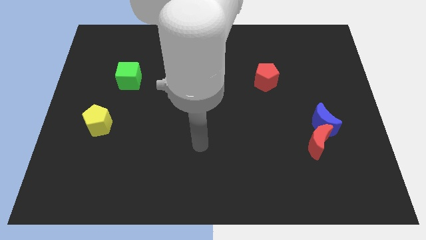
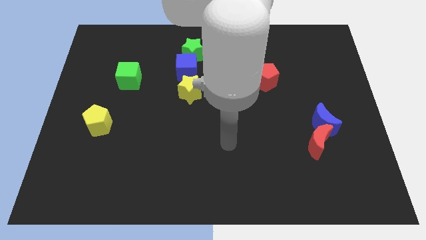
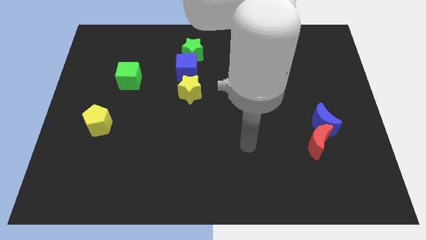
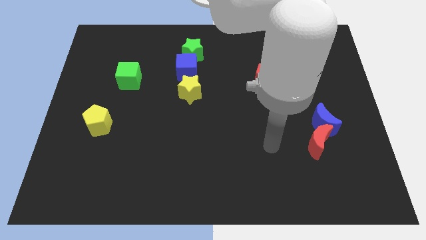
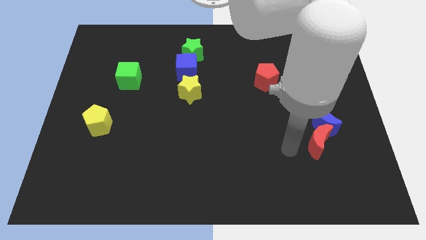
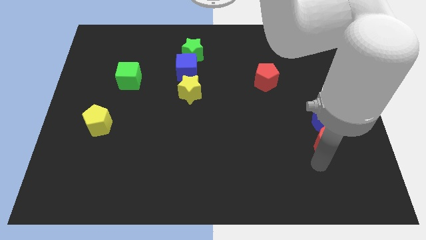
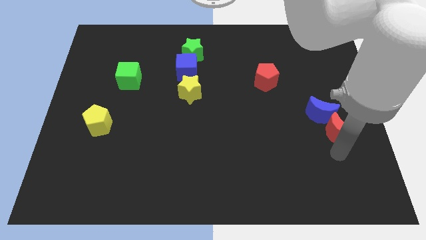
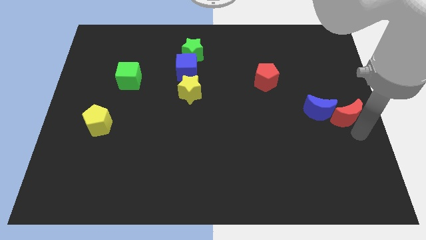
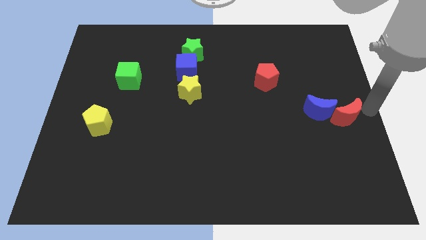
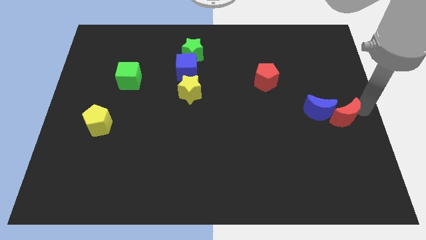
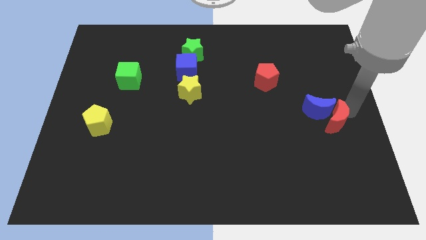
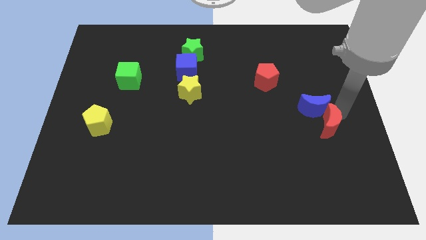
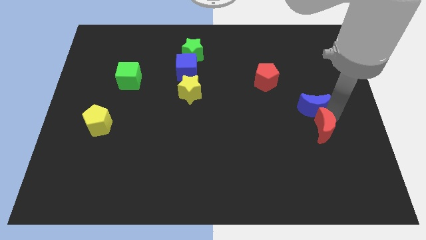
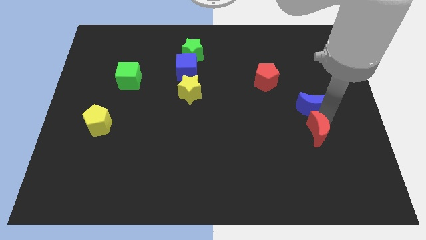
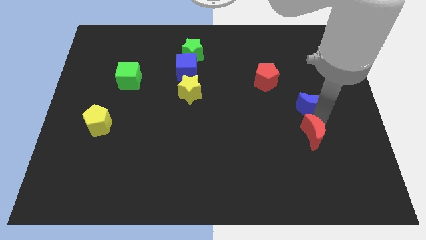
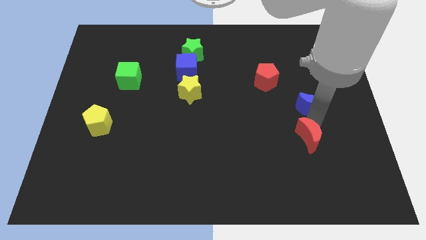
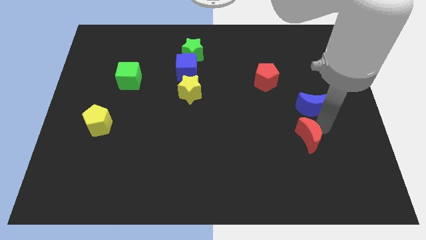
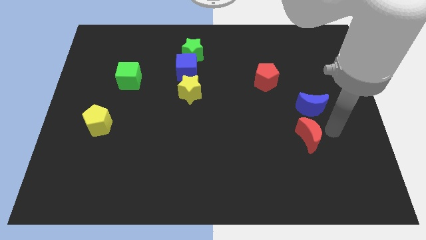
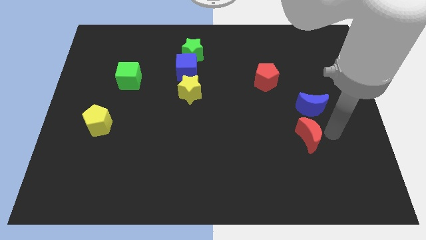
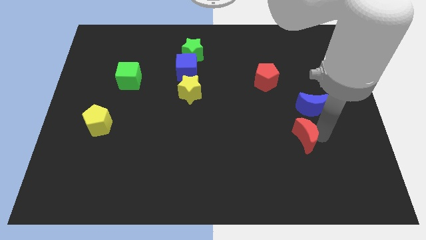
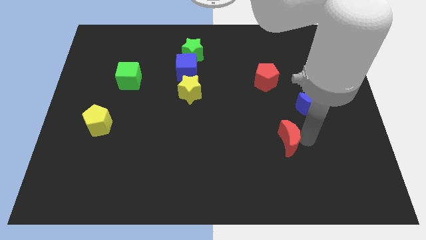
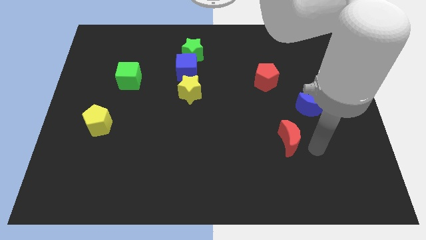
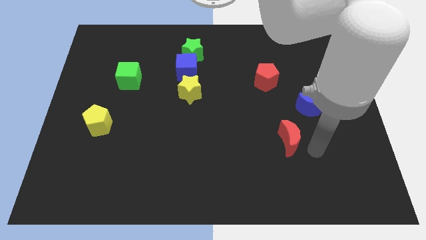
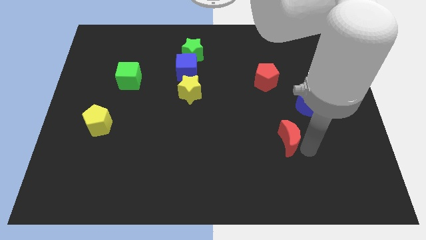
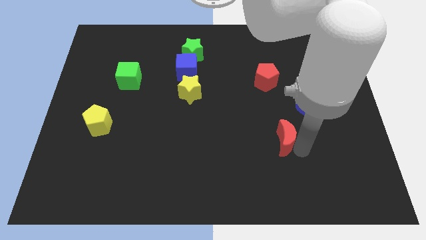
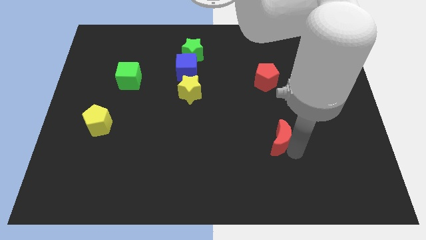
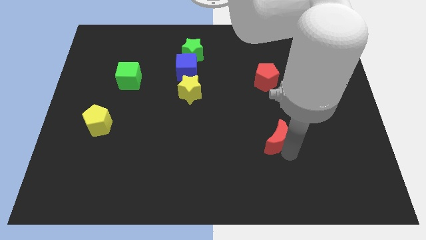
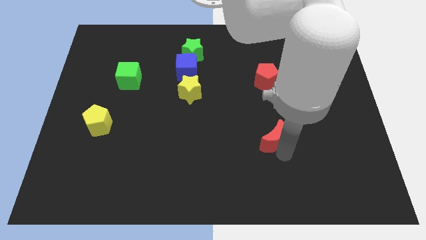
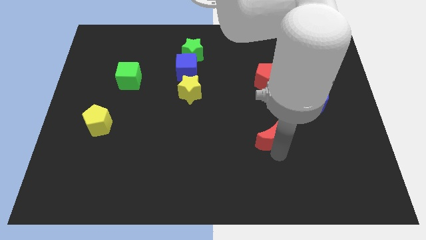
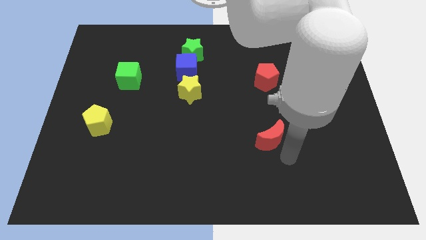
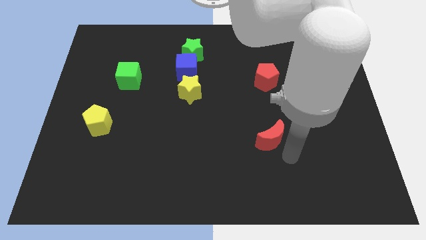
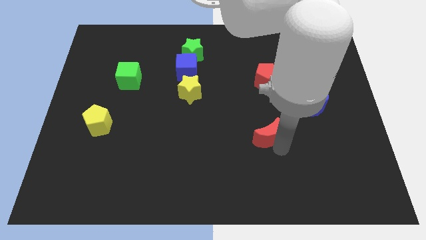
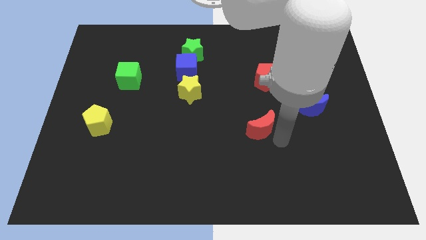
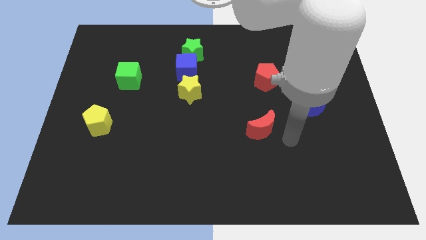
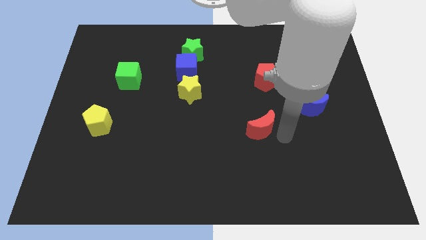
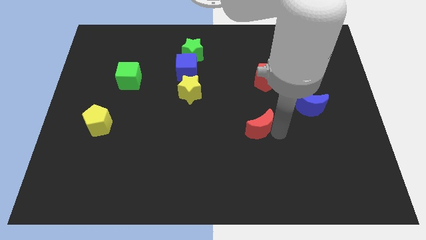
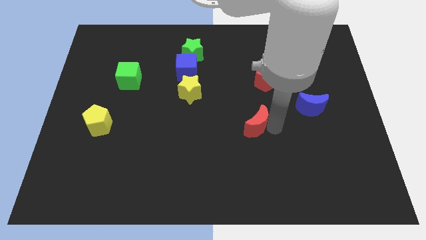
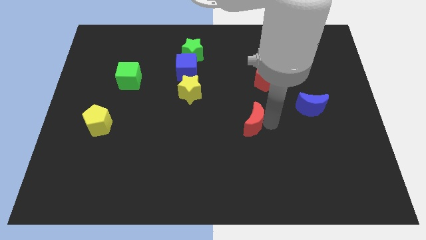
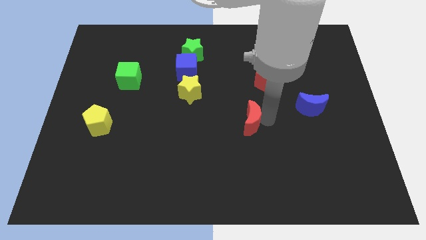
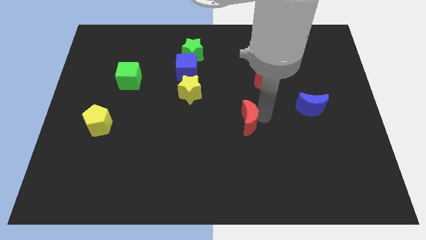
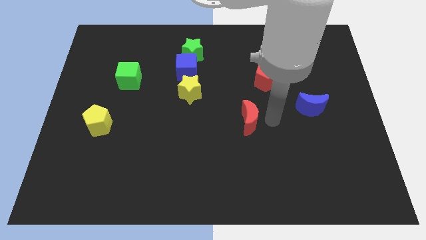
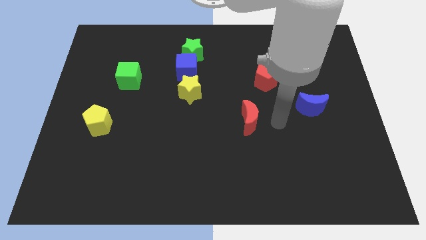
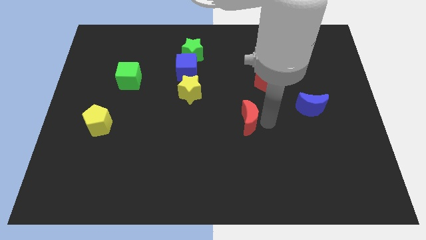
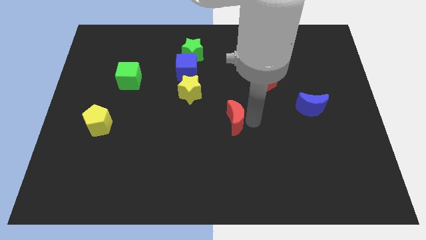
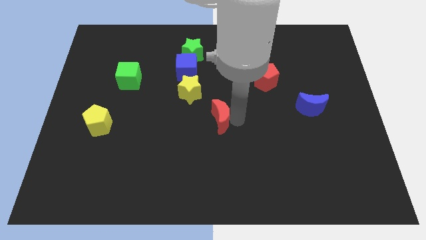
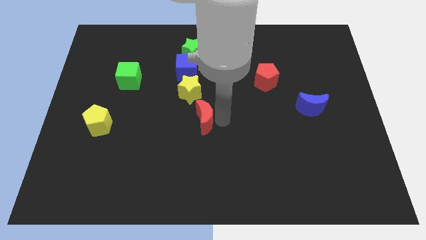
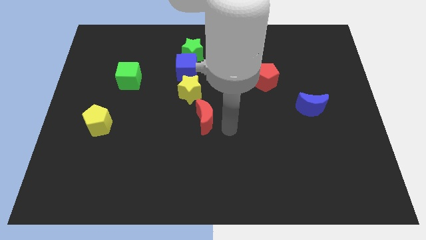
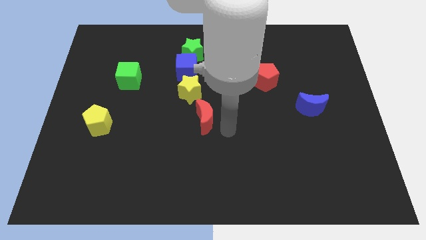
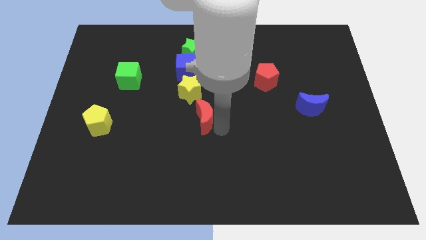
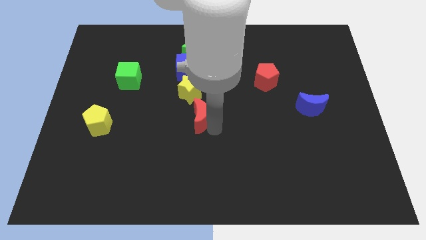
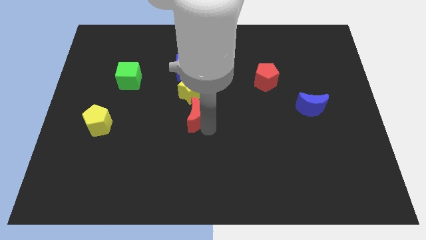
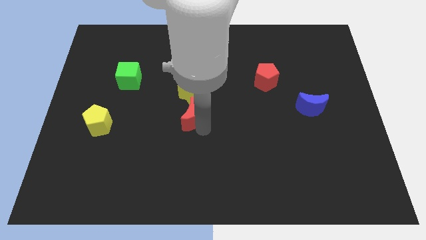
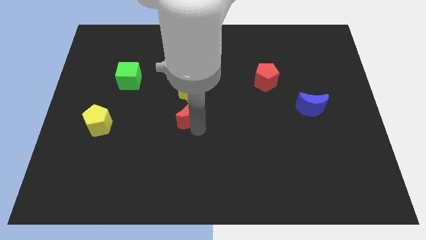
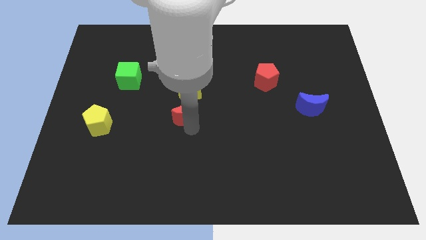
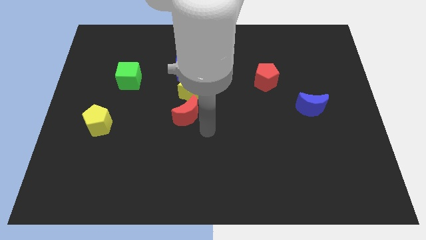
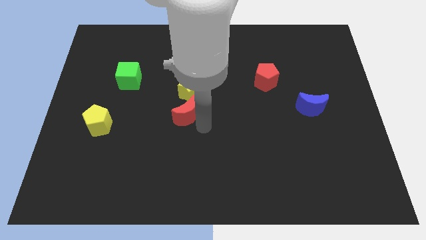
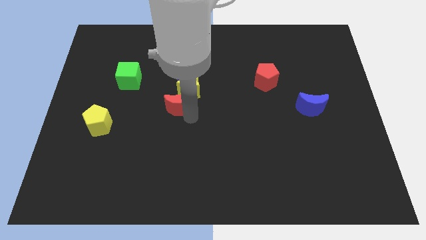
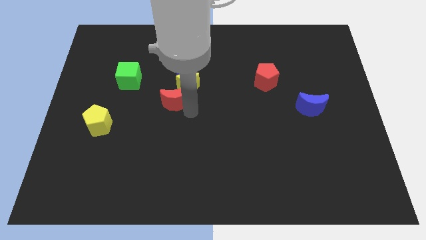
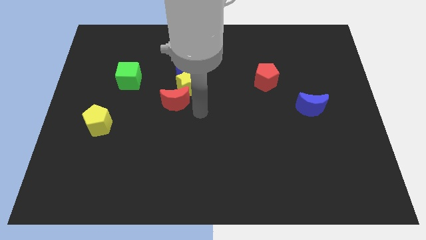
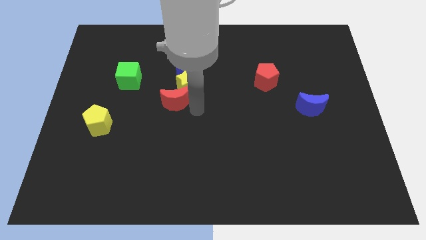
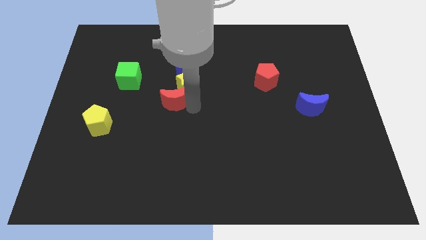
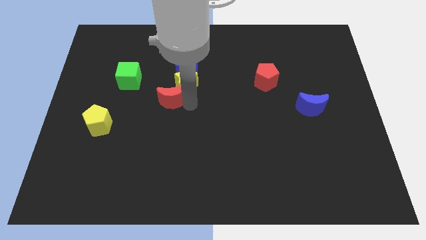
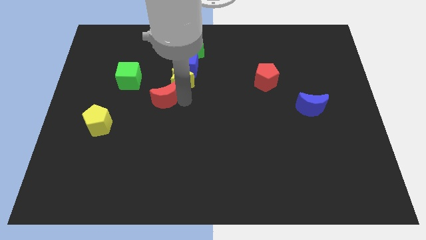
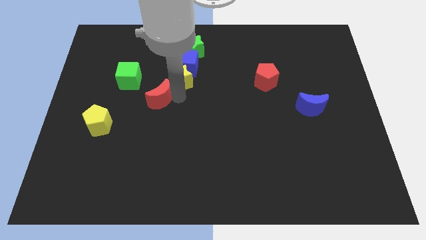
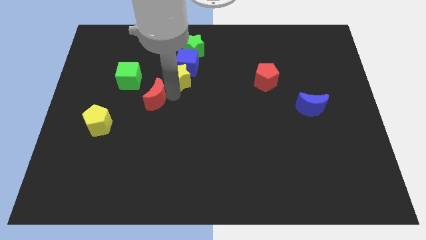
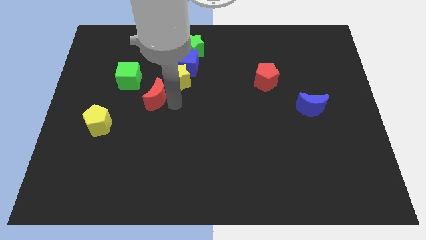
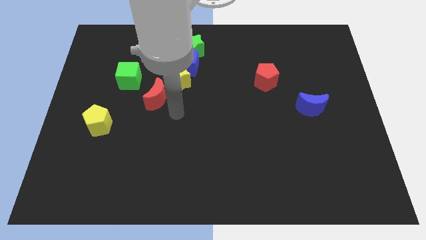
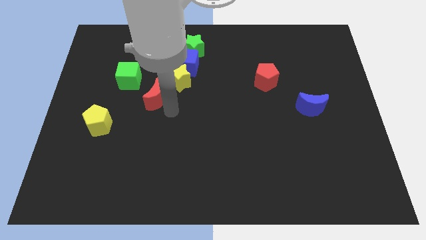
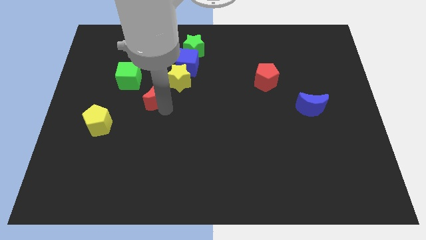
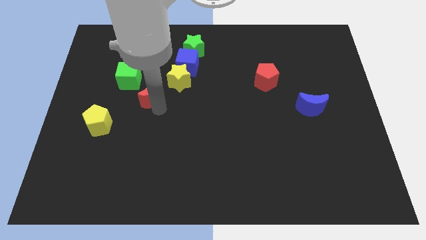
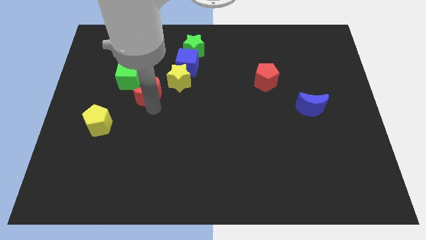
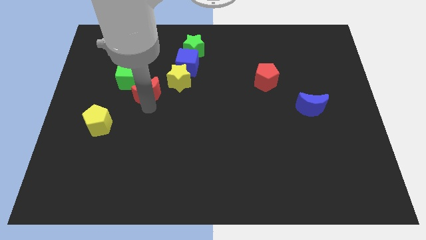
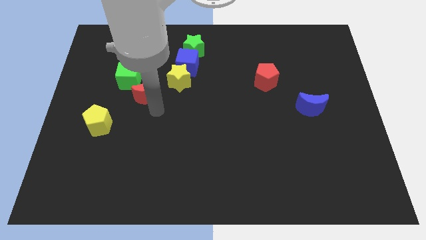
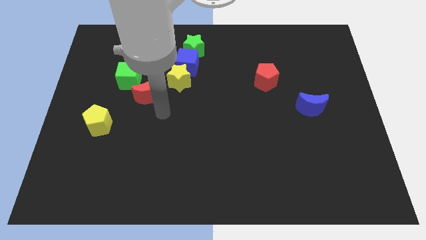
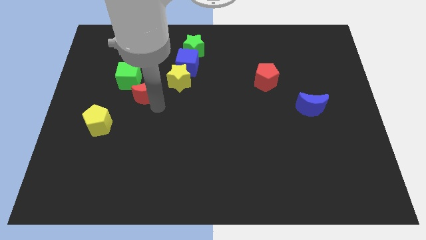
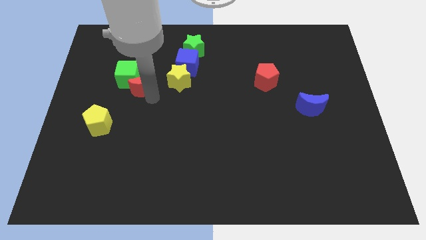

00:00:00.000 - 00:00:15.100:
put the red moon to the green cube

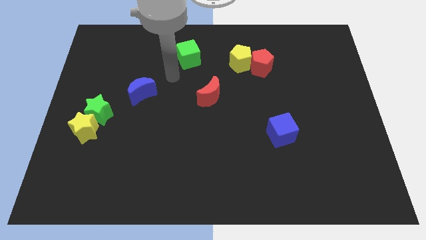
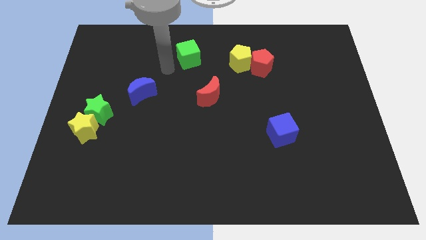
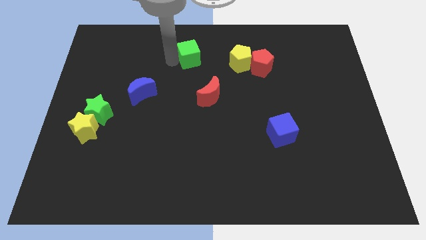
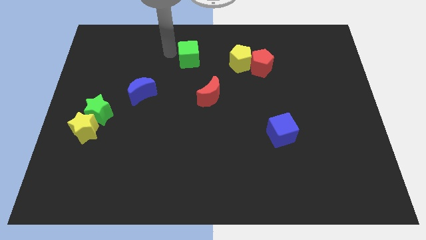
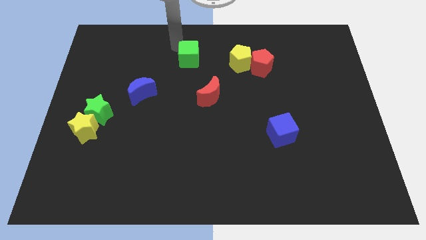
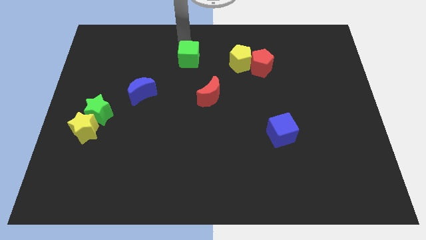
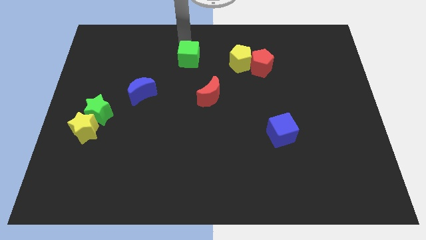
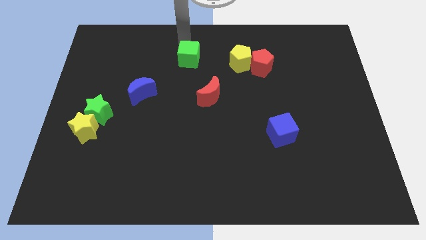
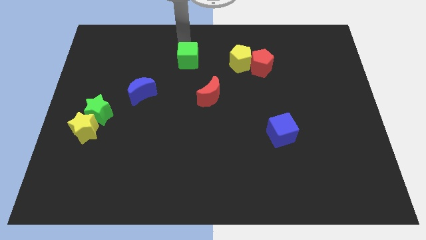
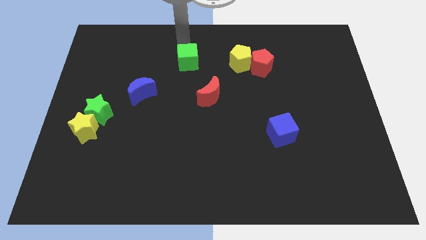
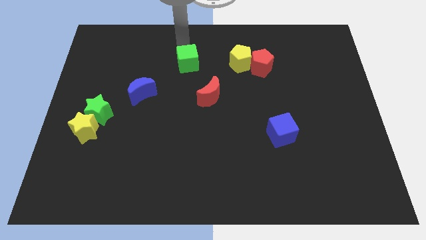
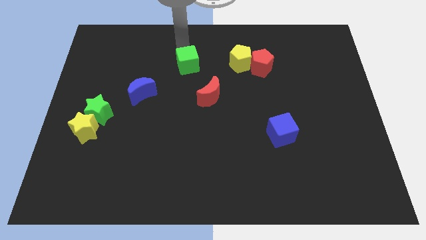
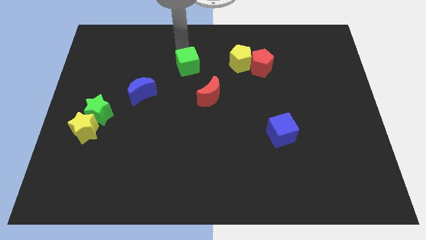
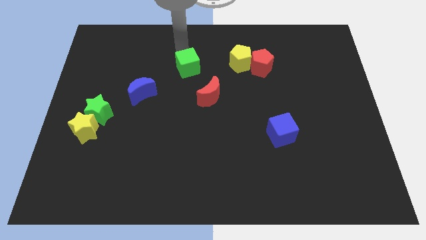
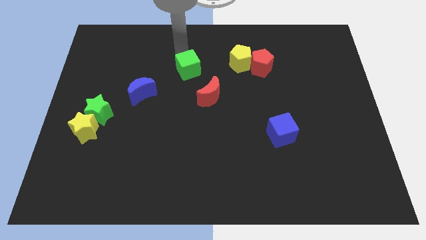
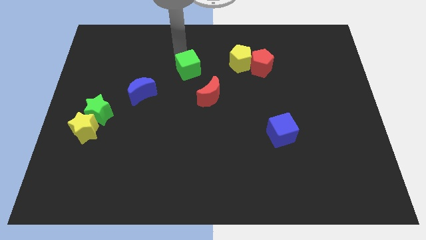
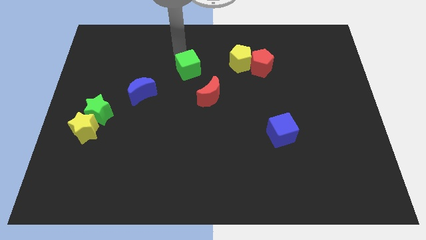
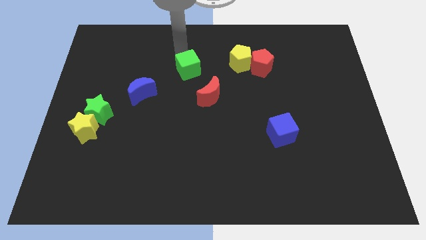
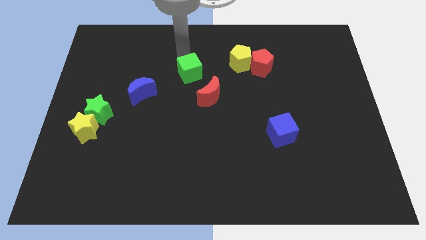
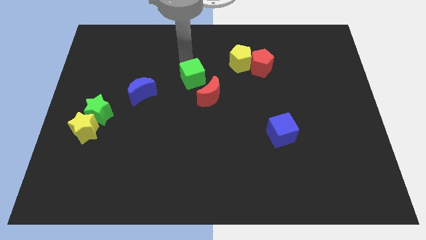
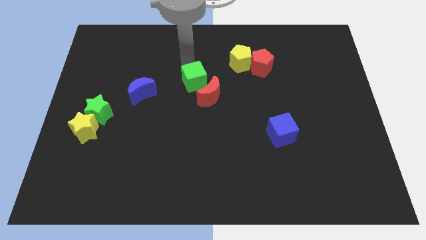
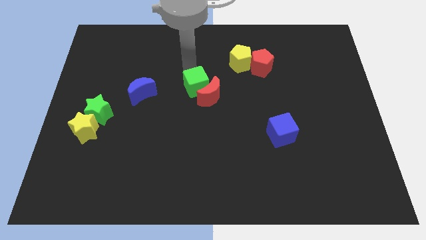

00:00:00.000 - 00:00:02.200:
move the green cube towards the red moon
